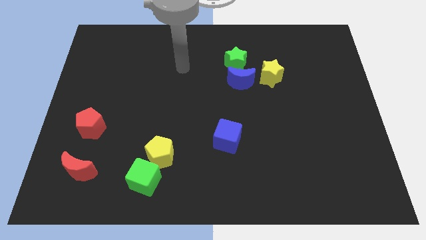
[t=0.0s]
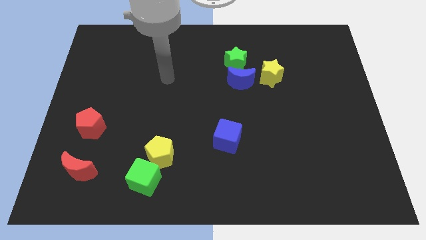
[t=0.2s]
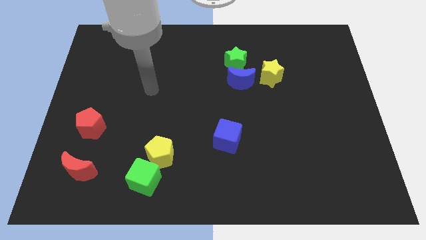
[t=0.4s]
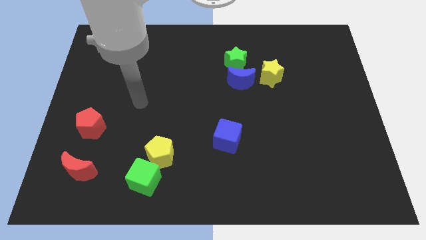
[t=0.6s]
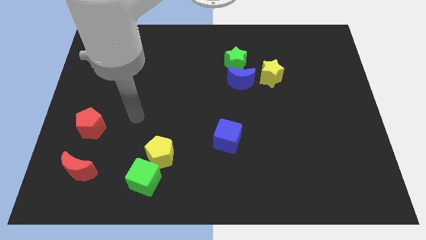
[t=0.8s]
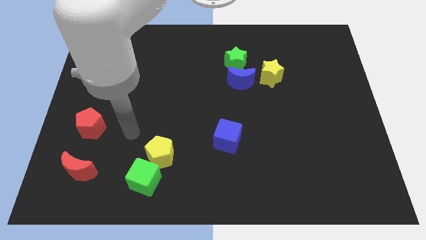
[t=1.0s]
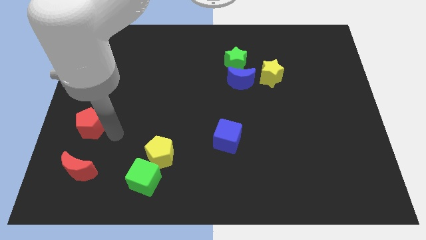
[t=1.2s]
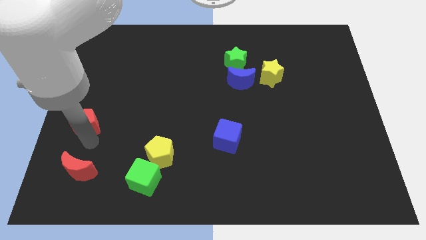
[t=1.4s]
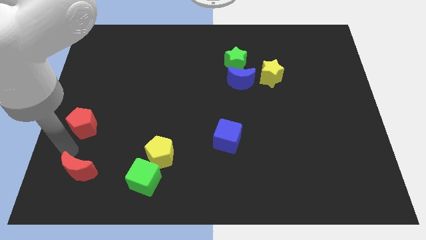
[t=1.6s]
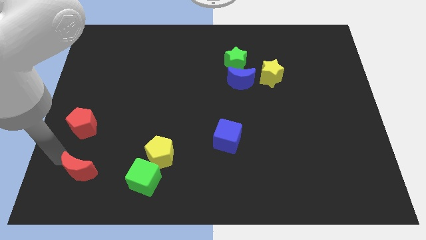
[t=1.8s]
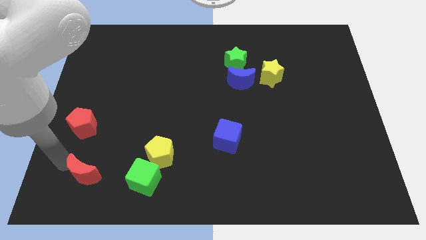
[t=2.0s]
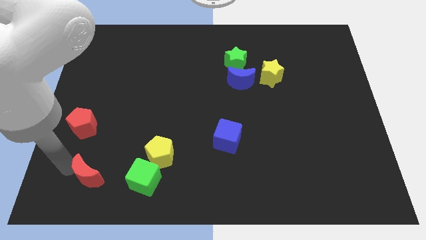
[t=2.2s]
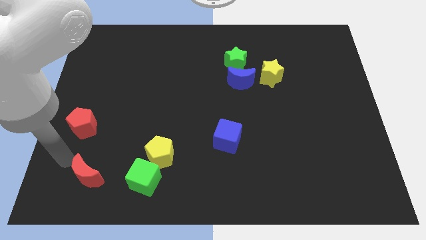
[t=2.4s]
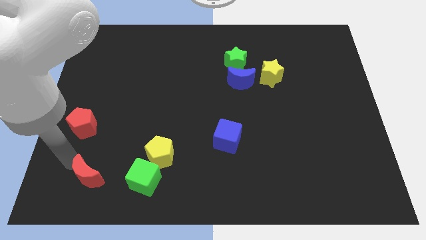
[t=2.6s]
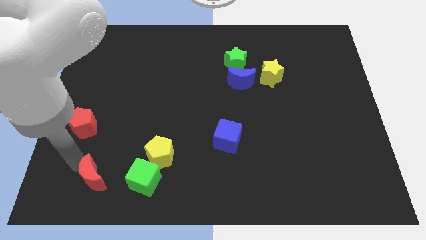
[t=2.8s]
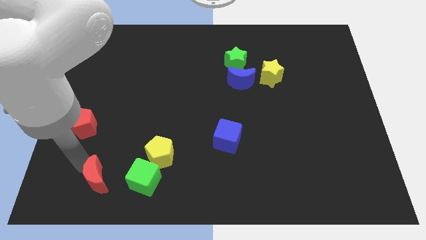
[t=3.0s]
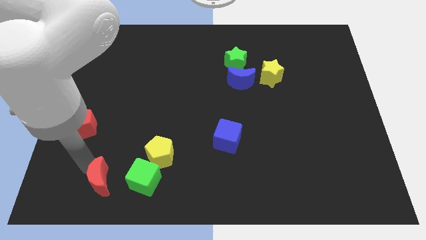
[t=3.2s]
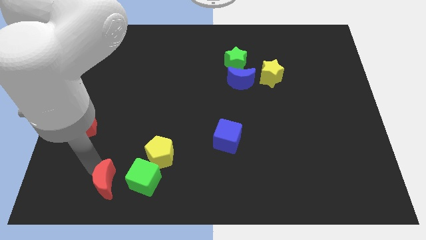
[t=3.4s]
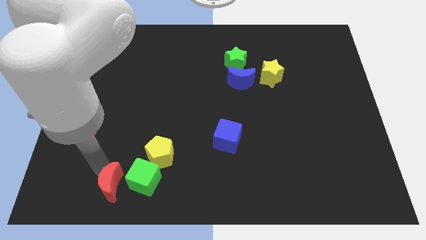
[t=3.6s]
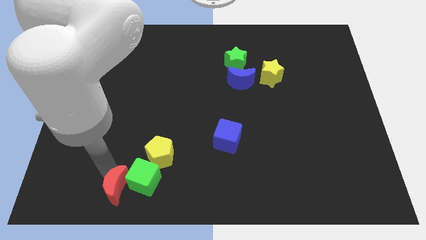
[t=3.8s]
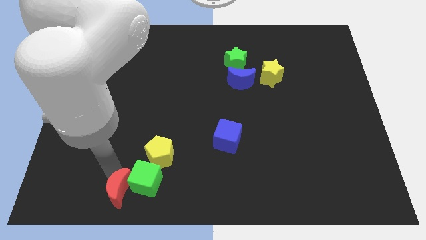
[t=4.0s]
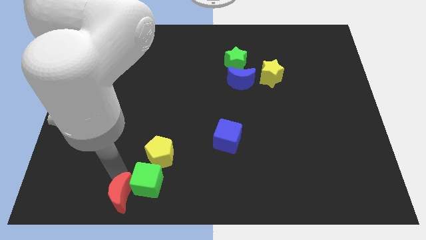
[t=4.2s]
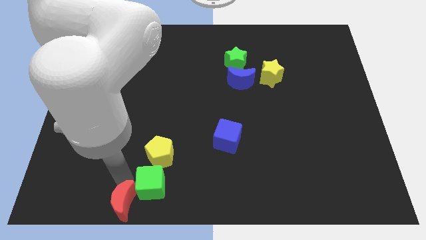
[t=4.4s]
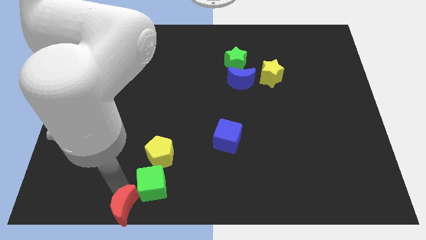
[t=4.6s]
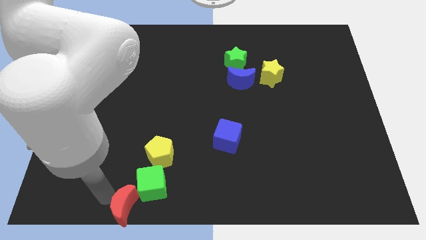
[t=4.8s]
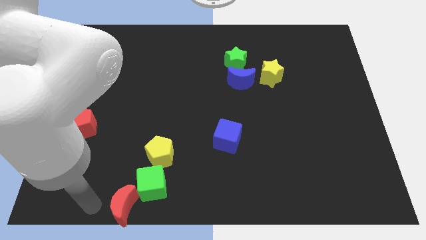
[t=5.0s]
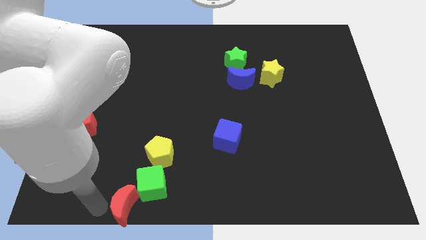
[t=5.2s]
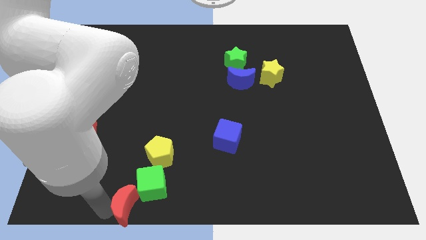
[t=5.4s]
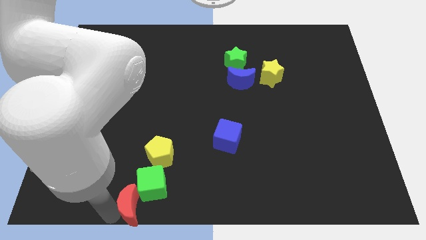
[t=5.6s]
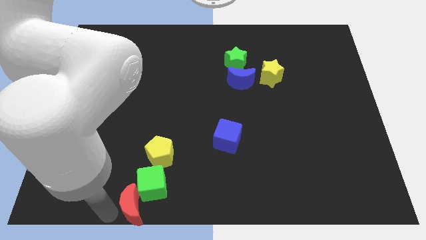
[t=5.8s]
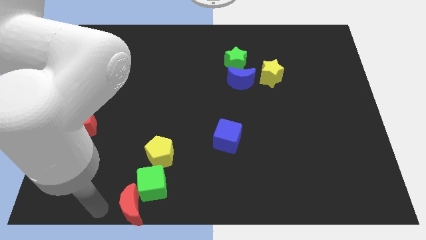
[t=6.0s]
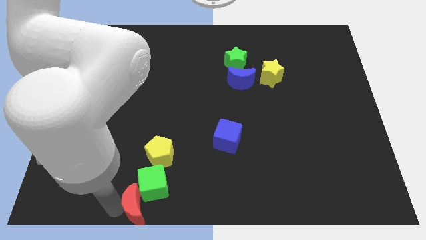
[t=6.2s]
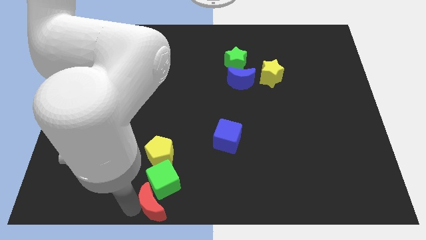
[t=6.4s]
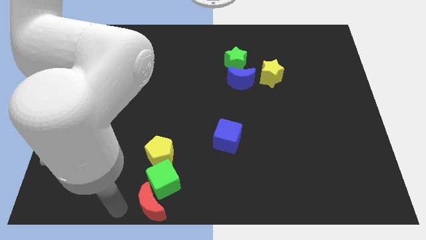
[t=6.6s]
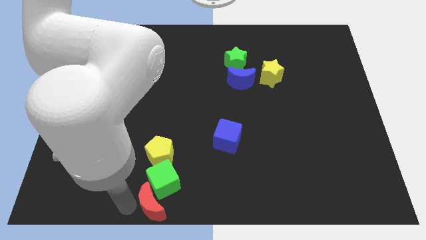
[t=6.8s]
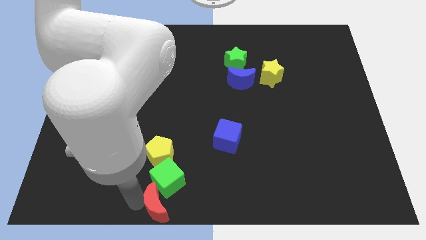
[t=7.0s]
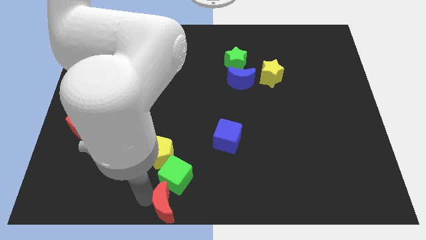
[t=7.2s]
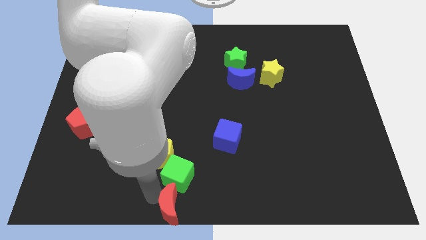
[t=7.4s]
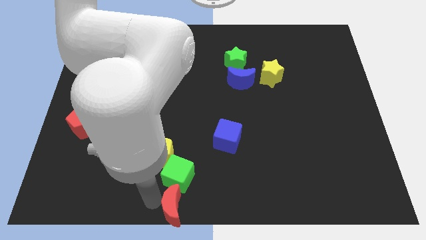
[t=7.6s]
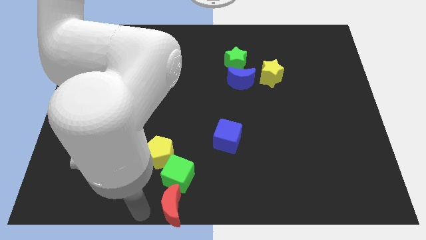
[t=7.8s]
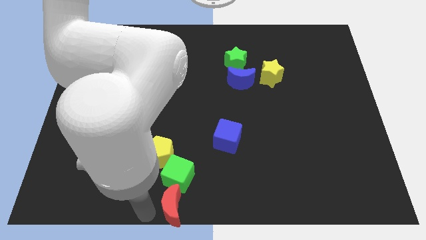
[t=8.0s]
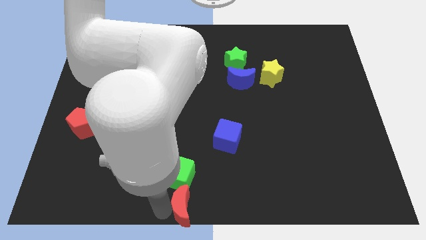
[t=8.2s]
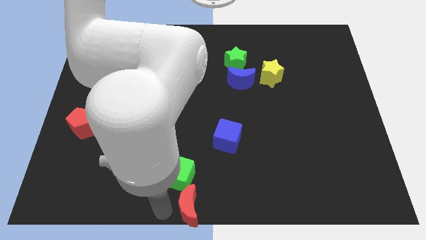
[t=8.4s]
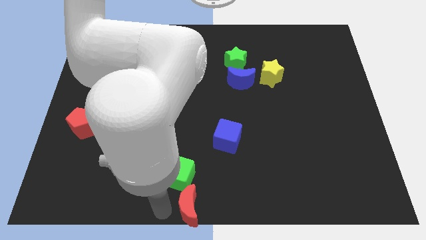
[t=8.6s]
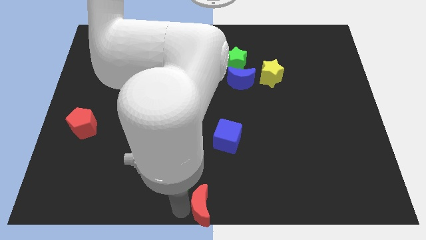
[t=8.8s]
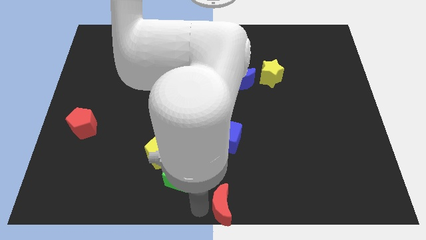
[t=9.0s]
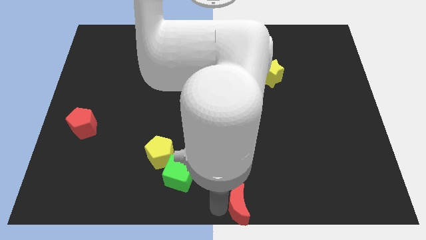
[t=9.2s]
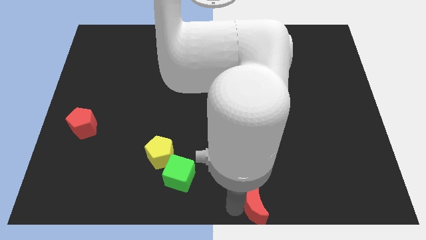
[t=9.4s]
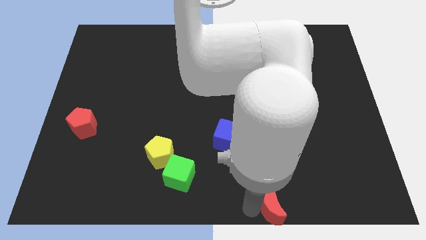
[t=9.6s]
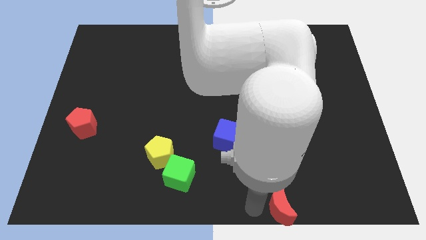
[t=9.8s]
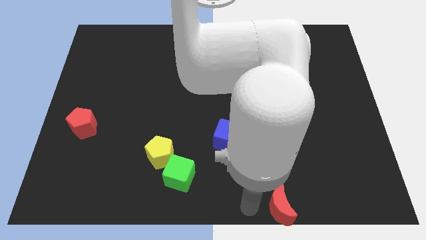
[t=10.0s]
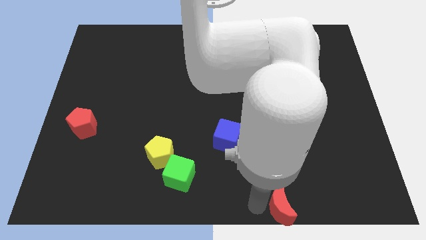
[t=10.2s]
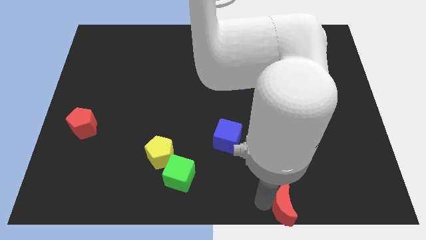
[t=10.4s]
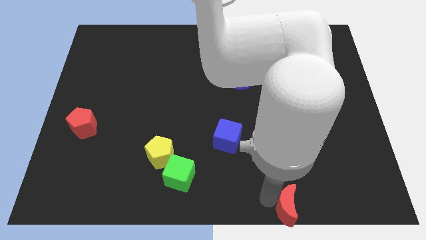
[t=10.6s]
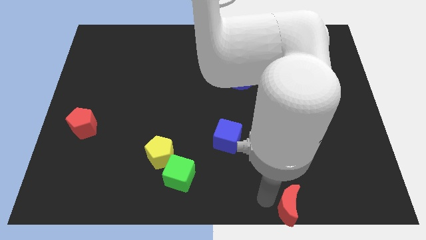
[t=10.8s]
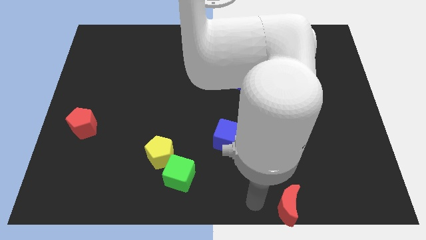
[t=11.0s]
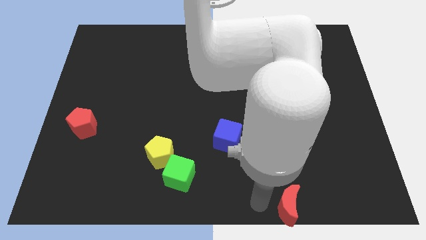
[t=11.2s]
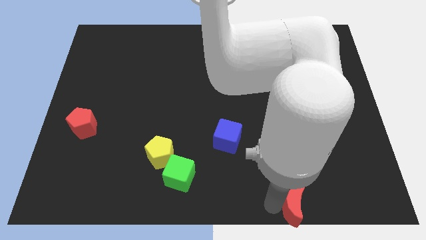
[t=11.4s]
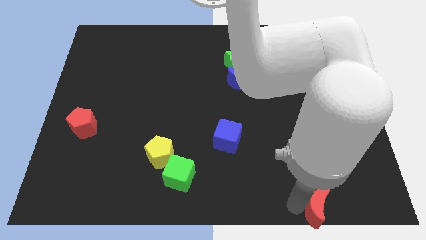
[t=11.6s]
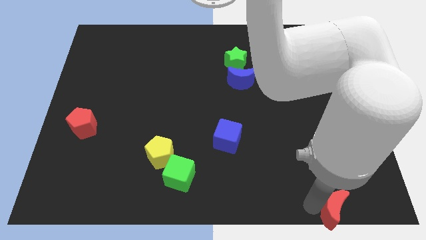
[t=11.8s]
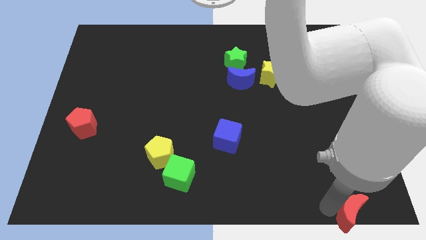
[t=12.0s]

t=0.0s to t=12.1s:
push the red moon to the bottom right corner

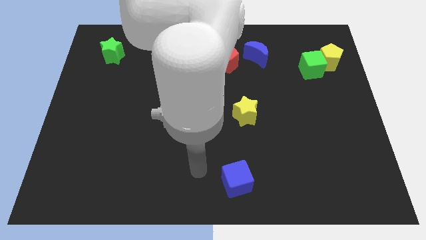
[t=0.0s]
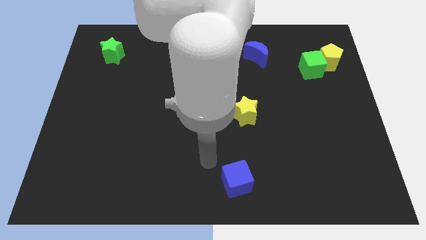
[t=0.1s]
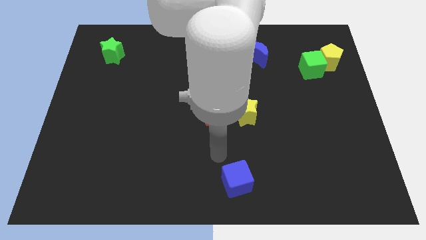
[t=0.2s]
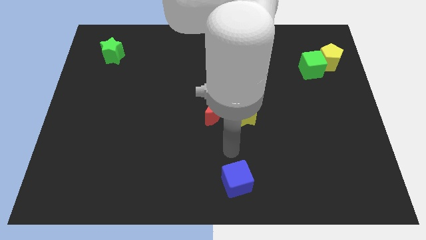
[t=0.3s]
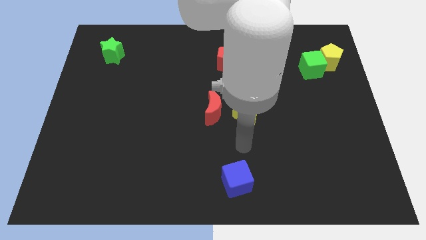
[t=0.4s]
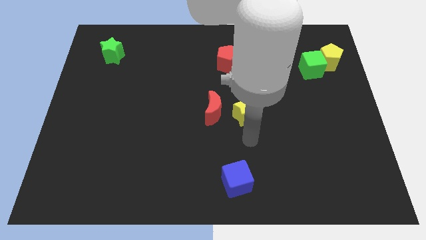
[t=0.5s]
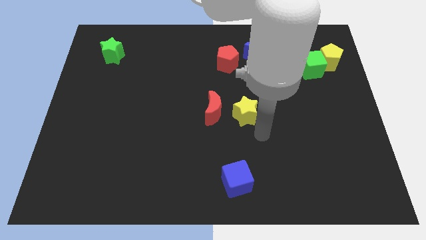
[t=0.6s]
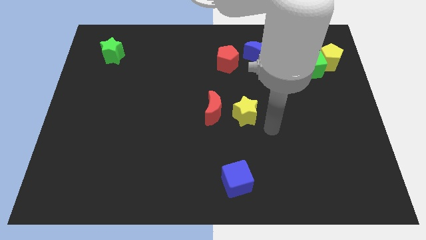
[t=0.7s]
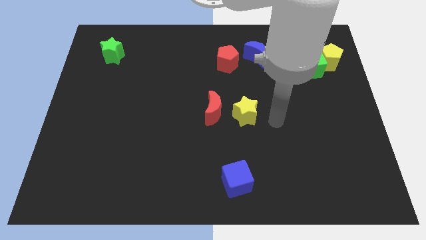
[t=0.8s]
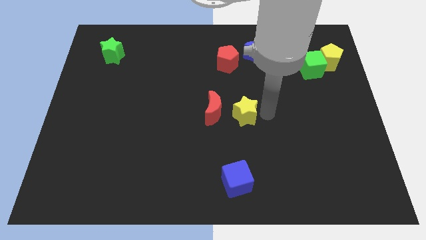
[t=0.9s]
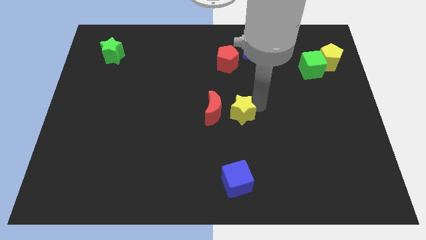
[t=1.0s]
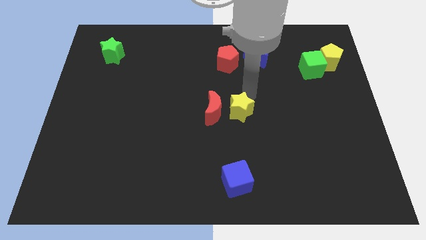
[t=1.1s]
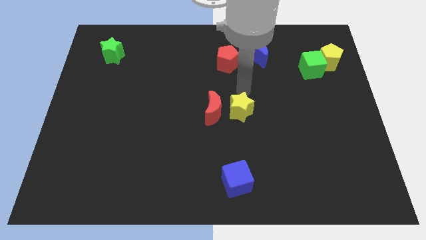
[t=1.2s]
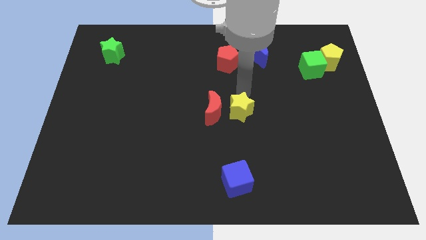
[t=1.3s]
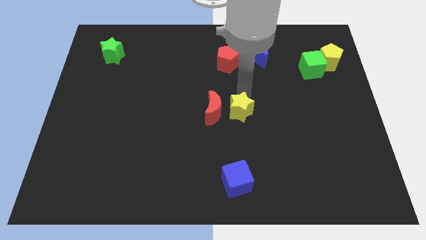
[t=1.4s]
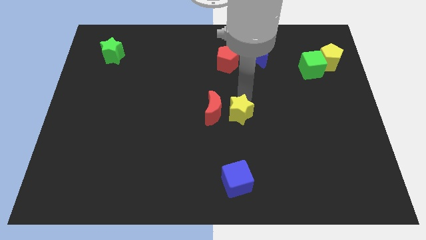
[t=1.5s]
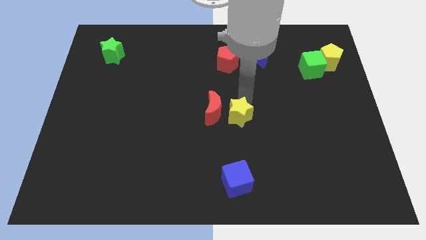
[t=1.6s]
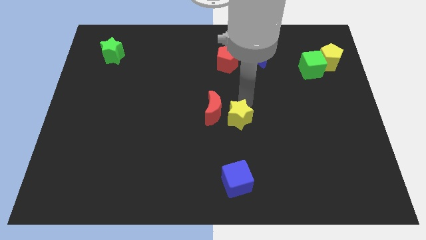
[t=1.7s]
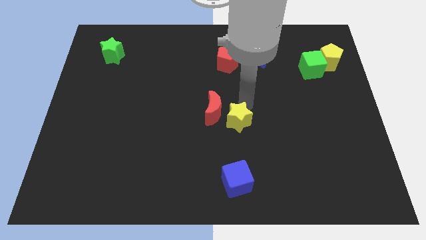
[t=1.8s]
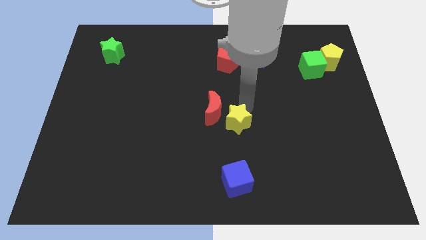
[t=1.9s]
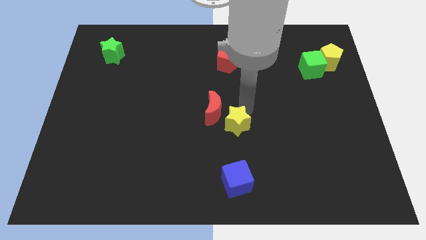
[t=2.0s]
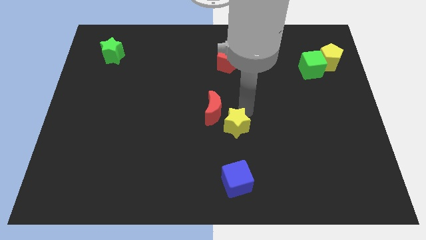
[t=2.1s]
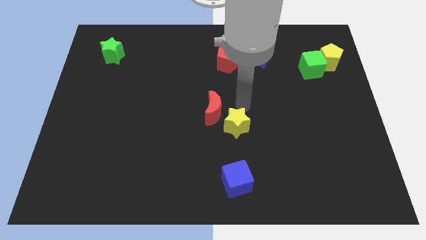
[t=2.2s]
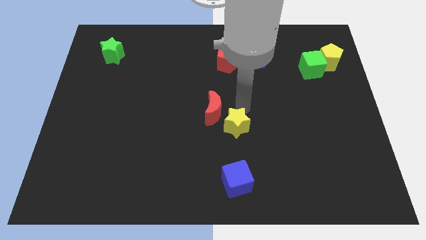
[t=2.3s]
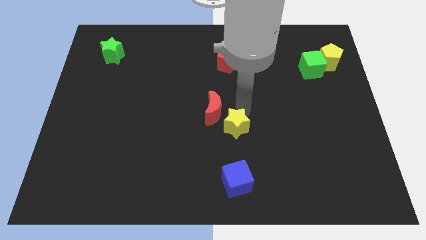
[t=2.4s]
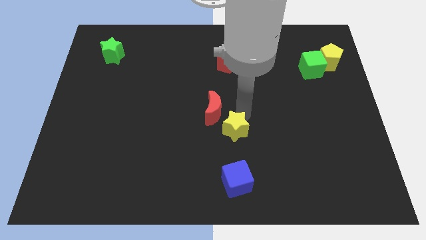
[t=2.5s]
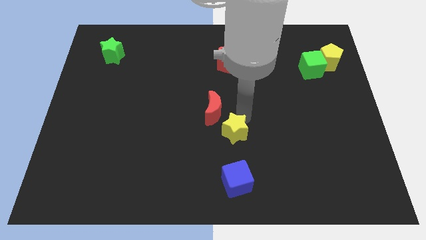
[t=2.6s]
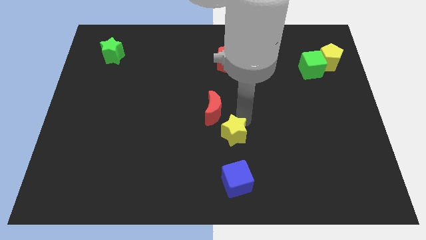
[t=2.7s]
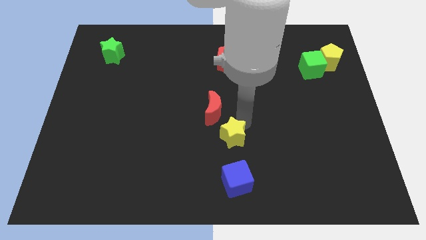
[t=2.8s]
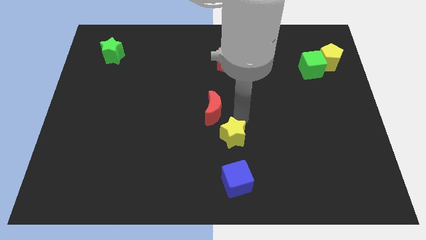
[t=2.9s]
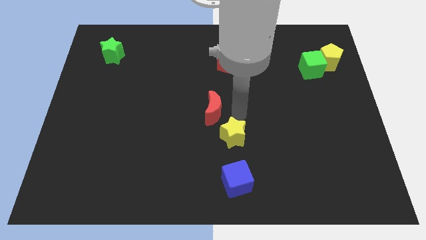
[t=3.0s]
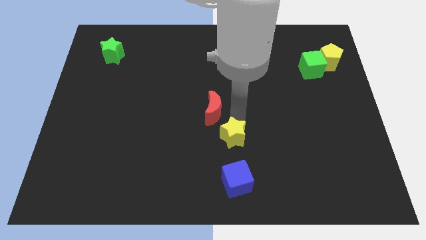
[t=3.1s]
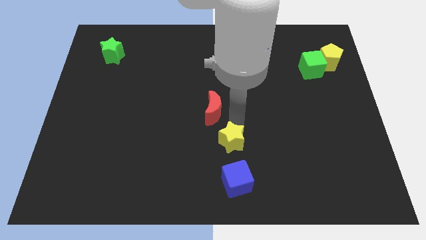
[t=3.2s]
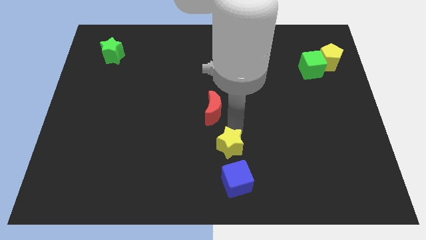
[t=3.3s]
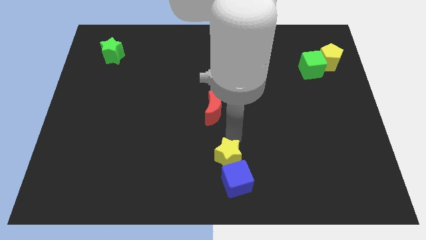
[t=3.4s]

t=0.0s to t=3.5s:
slide the yellow star to the bottom side
